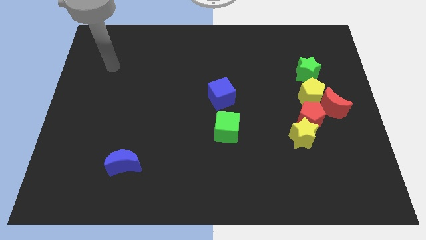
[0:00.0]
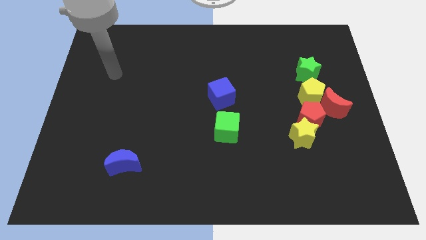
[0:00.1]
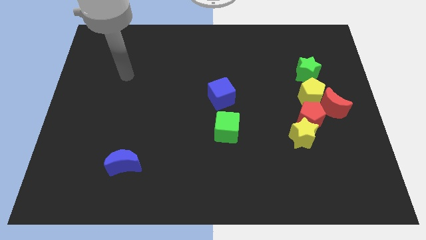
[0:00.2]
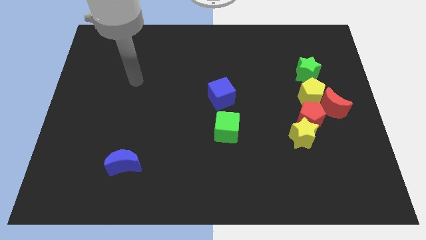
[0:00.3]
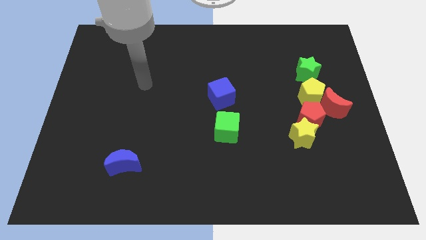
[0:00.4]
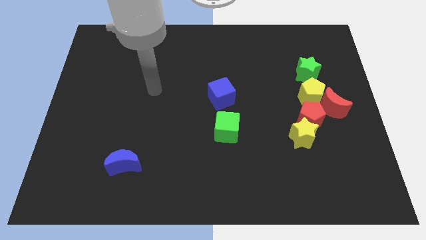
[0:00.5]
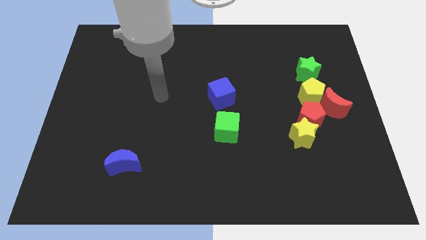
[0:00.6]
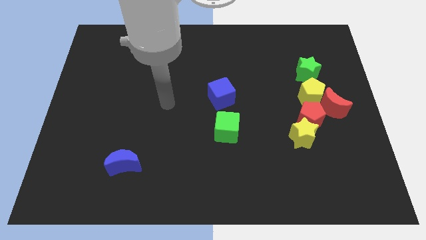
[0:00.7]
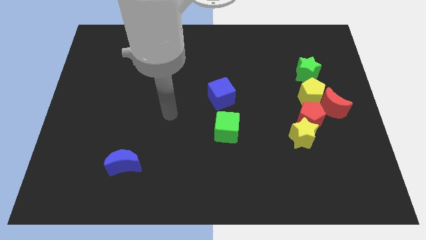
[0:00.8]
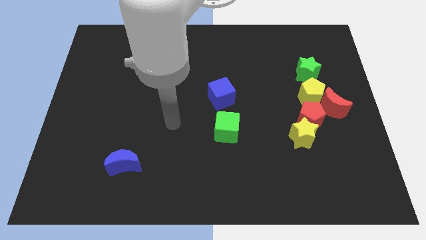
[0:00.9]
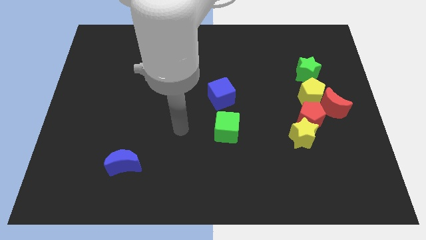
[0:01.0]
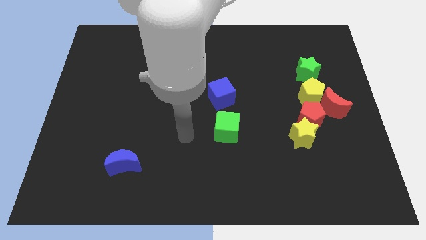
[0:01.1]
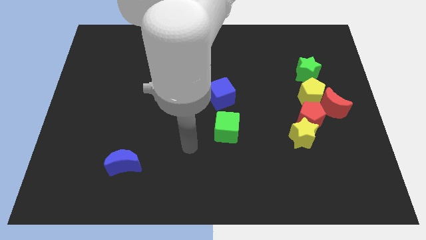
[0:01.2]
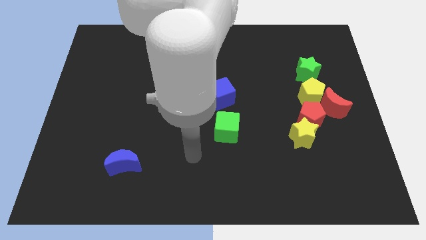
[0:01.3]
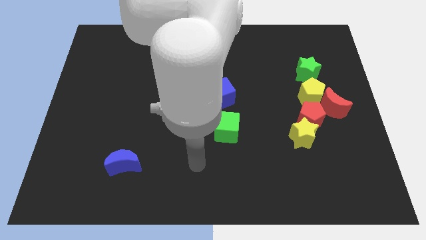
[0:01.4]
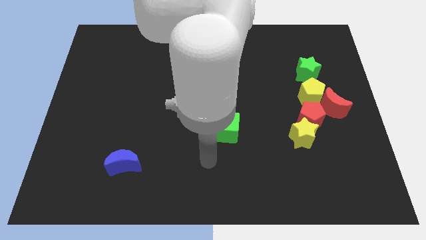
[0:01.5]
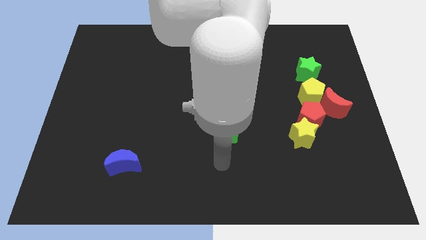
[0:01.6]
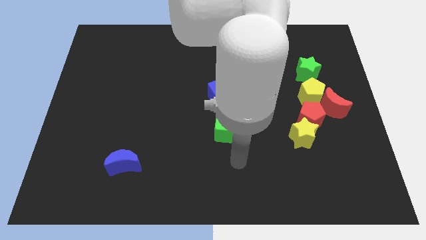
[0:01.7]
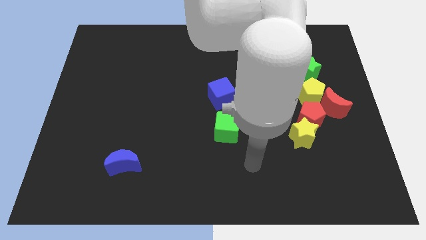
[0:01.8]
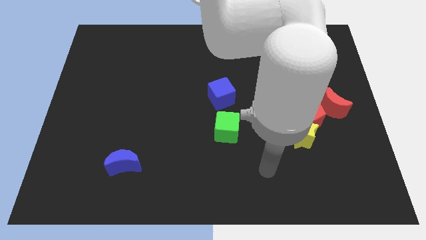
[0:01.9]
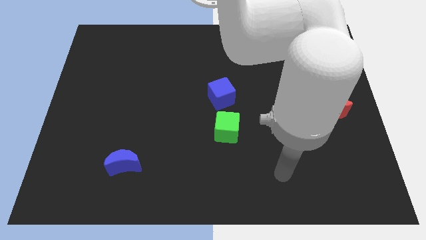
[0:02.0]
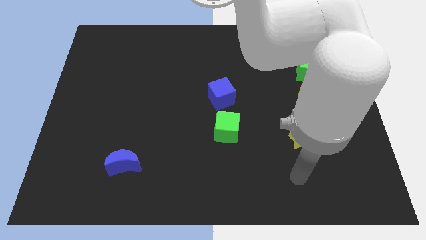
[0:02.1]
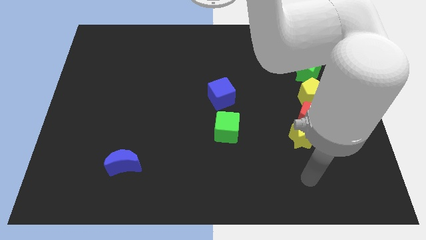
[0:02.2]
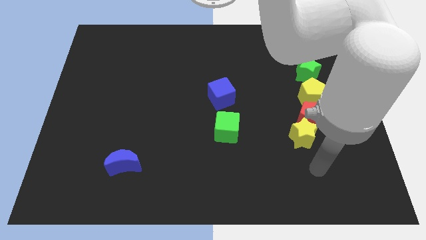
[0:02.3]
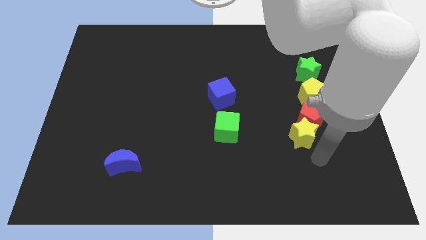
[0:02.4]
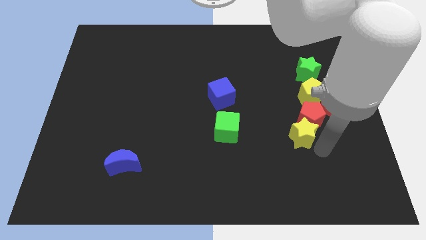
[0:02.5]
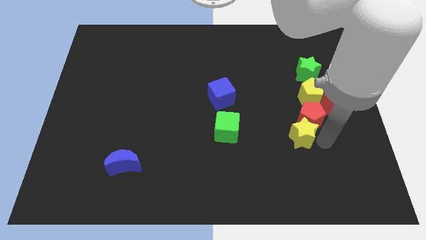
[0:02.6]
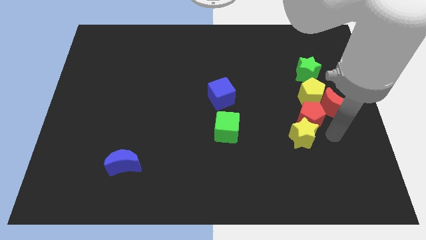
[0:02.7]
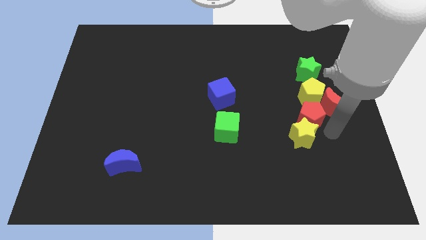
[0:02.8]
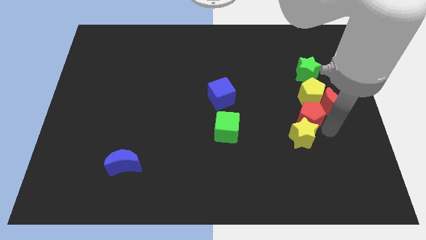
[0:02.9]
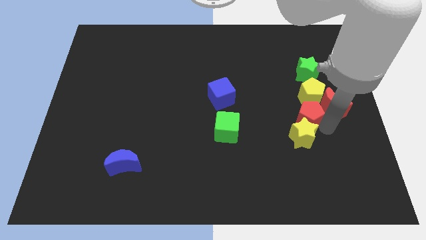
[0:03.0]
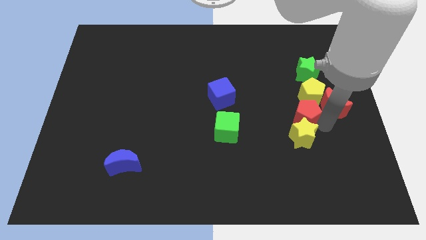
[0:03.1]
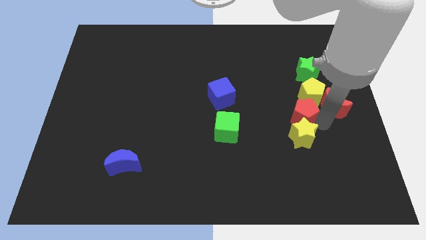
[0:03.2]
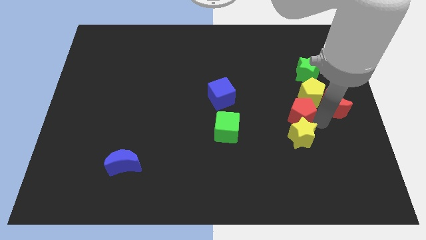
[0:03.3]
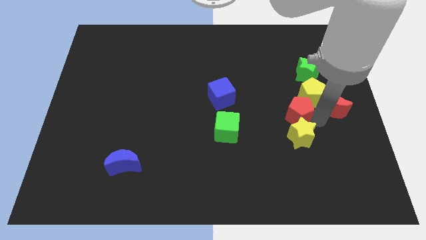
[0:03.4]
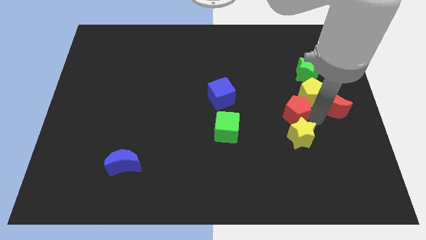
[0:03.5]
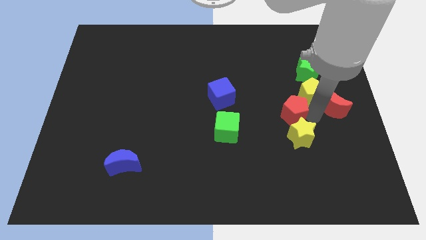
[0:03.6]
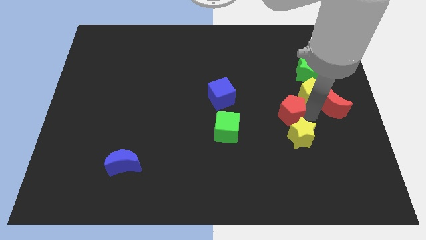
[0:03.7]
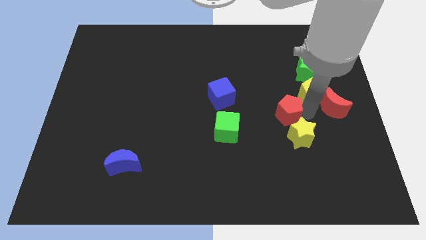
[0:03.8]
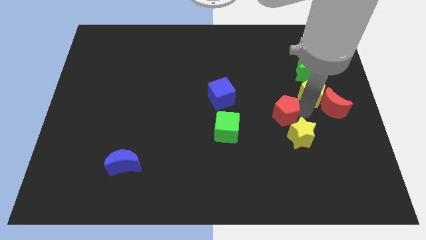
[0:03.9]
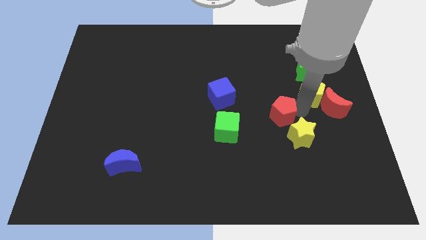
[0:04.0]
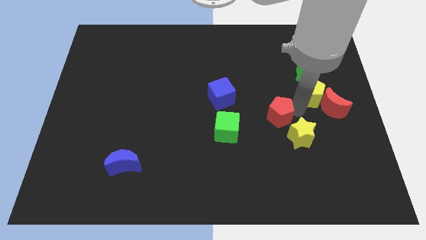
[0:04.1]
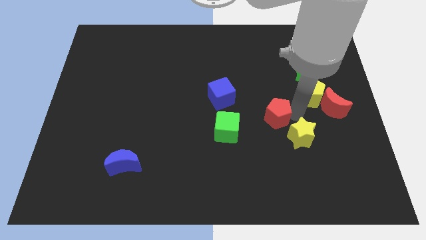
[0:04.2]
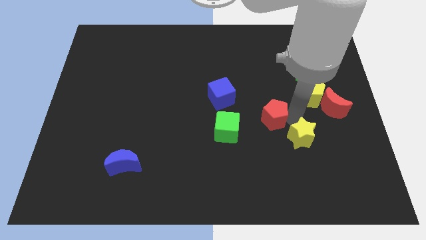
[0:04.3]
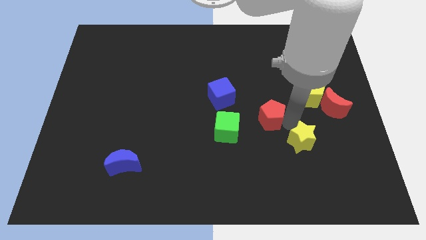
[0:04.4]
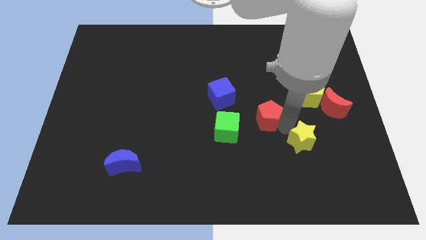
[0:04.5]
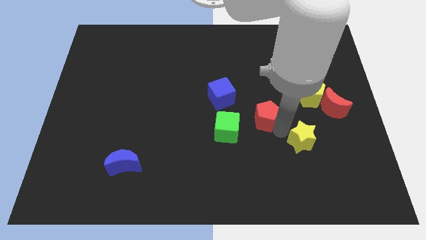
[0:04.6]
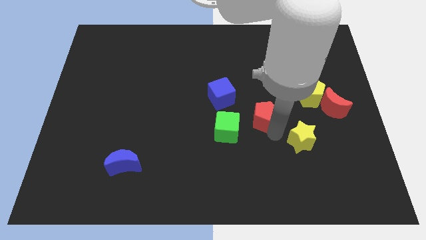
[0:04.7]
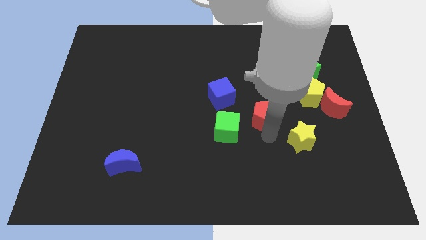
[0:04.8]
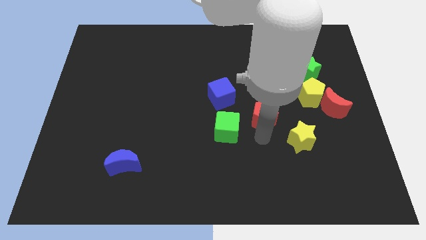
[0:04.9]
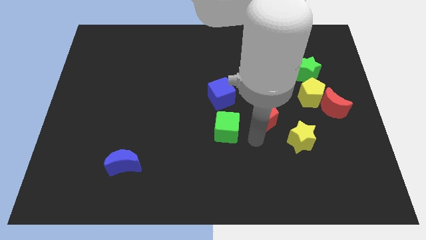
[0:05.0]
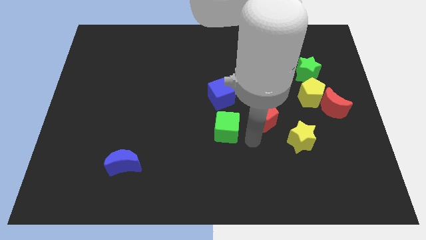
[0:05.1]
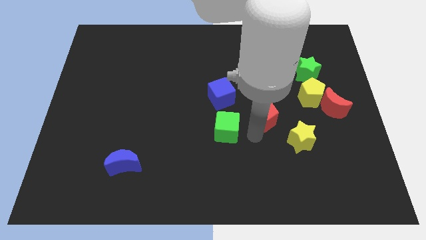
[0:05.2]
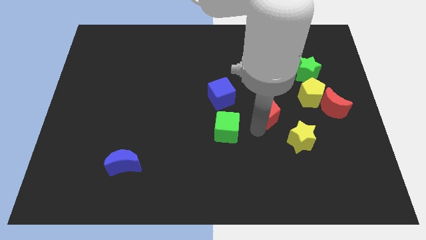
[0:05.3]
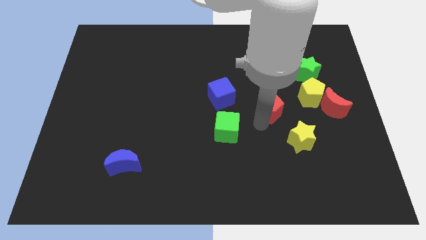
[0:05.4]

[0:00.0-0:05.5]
push the red pentagon upwards and left a little

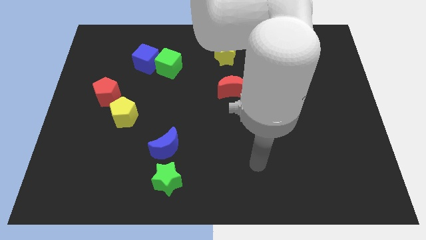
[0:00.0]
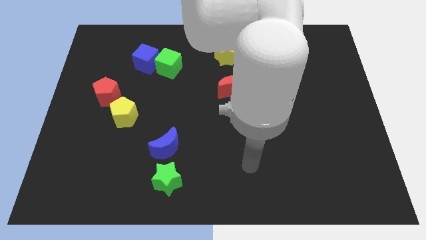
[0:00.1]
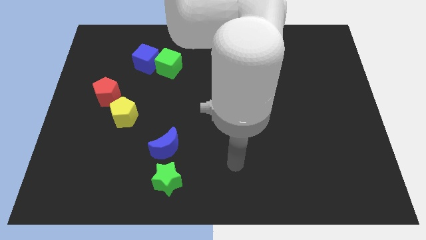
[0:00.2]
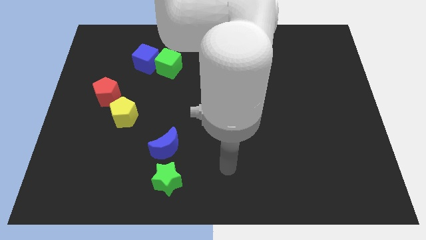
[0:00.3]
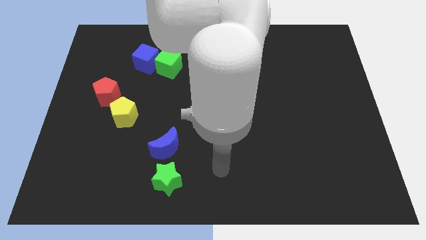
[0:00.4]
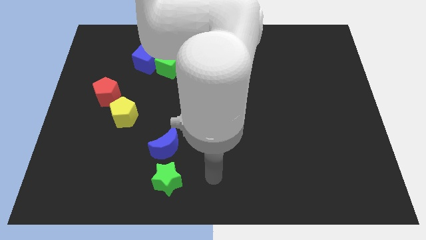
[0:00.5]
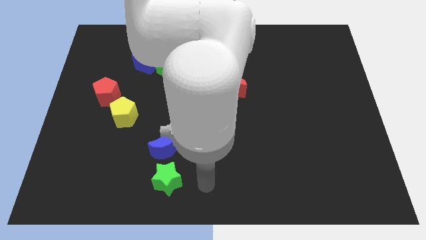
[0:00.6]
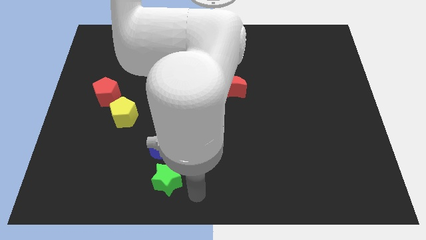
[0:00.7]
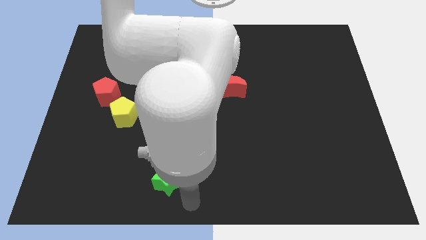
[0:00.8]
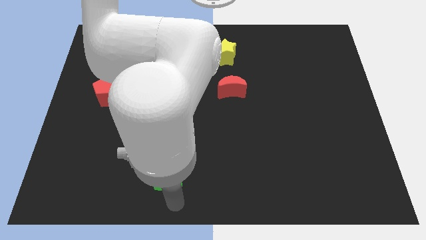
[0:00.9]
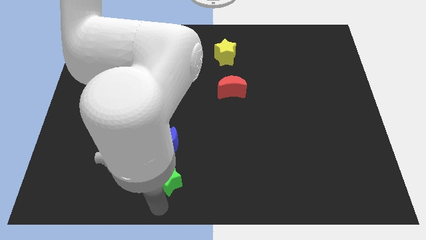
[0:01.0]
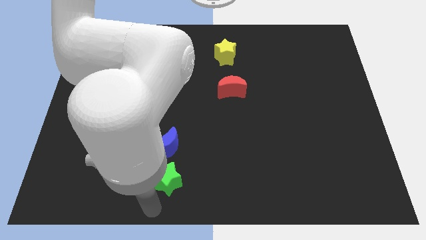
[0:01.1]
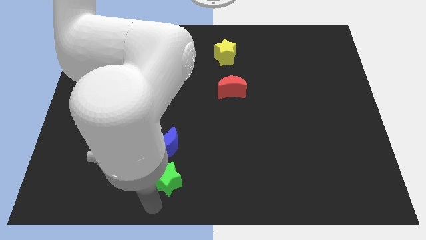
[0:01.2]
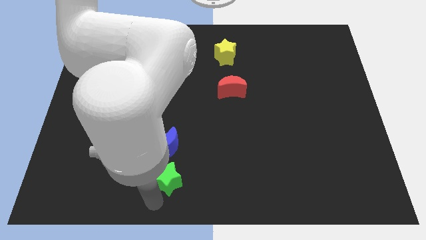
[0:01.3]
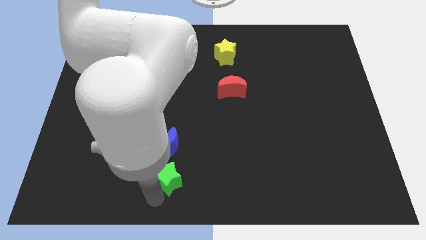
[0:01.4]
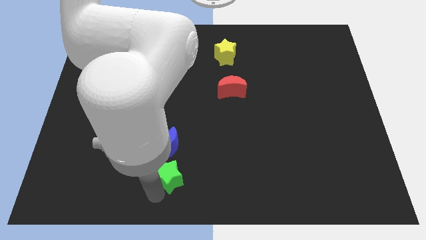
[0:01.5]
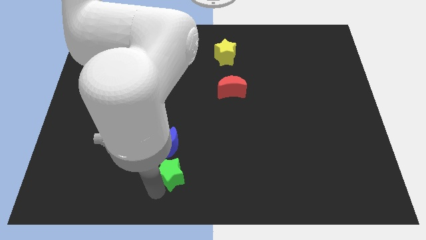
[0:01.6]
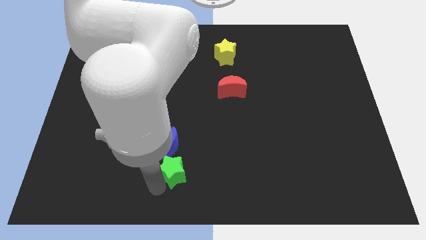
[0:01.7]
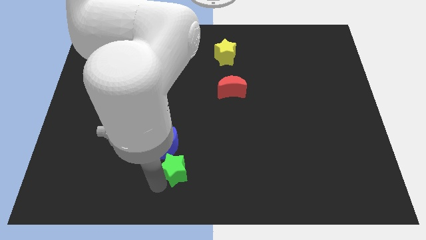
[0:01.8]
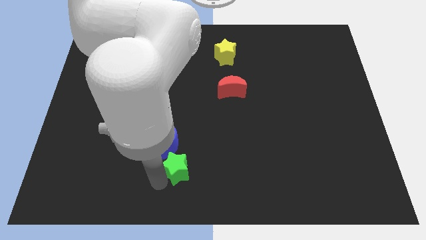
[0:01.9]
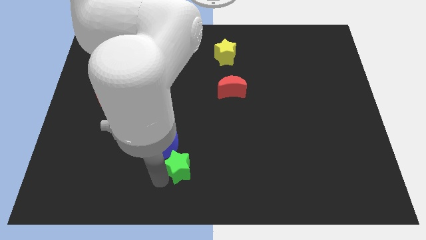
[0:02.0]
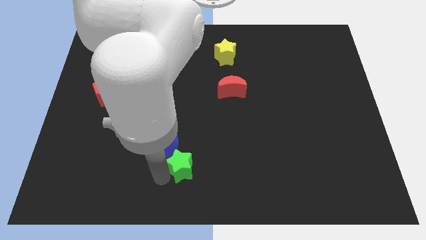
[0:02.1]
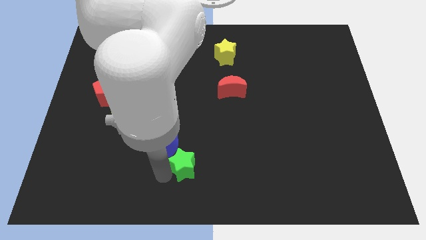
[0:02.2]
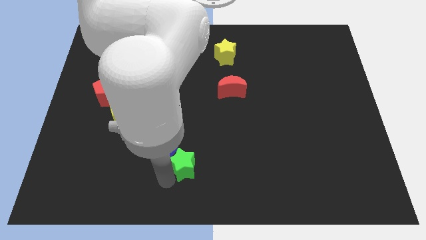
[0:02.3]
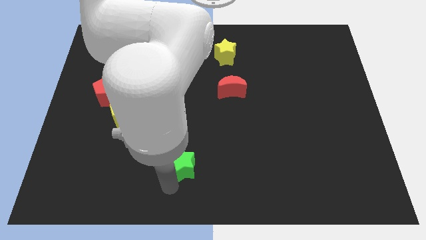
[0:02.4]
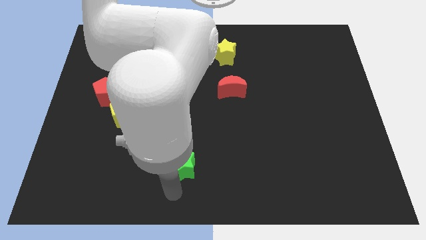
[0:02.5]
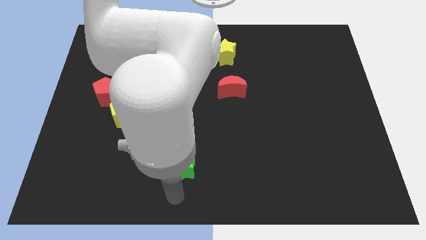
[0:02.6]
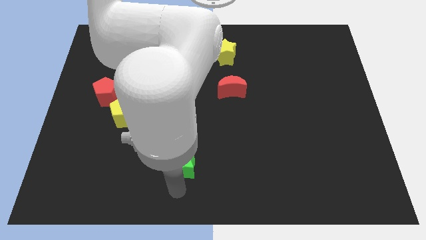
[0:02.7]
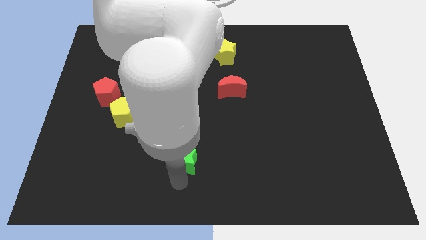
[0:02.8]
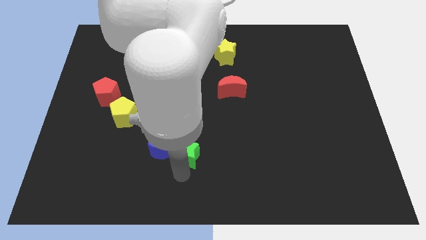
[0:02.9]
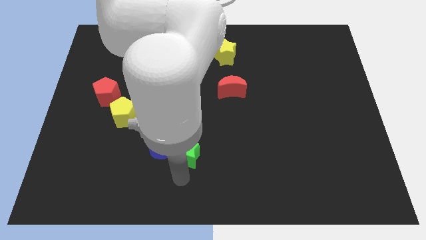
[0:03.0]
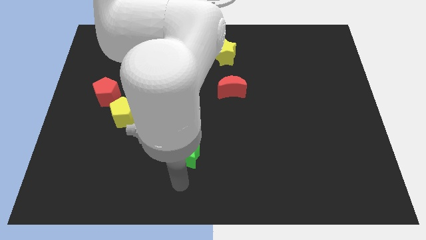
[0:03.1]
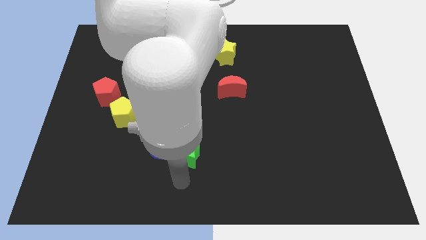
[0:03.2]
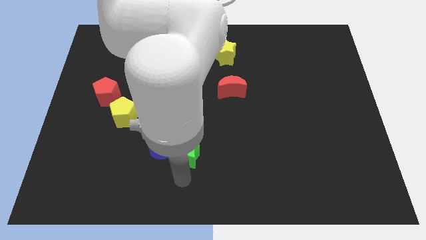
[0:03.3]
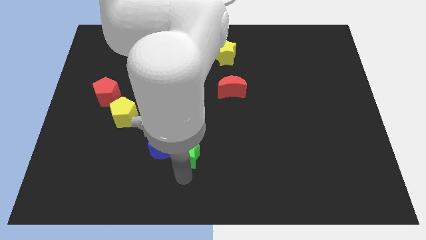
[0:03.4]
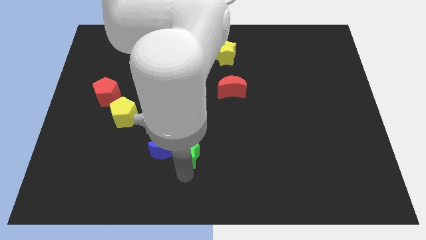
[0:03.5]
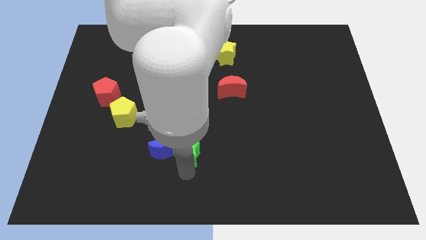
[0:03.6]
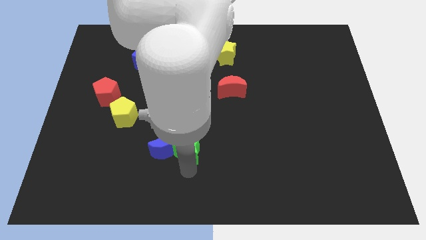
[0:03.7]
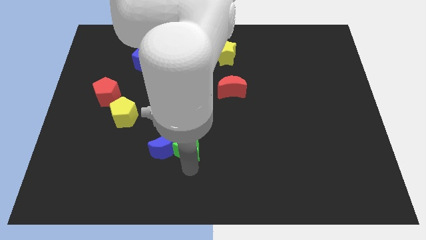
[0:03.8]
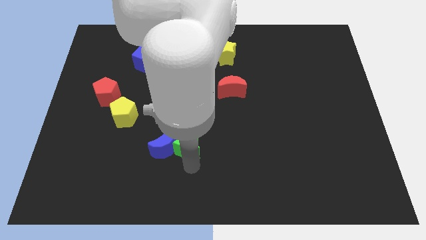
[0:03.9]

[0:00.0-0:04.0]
slightly push the green star up
